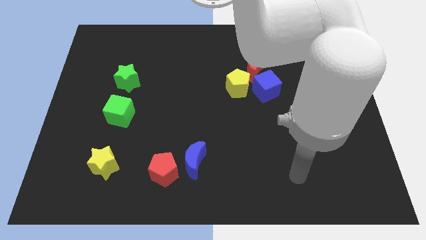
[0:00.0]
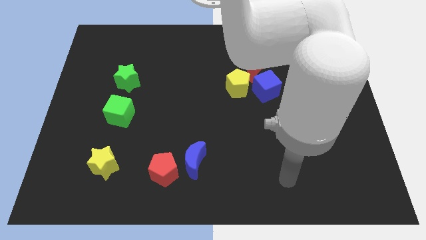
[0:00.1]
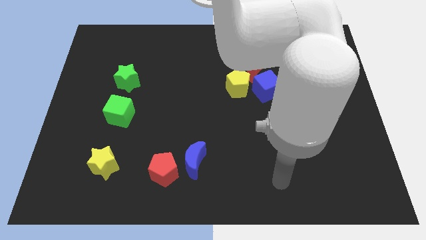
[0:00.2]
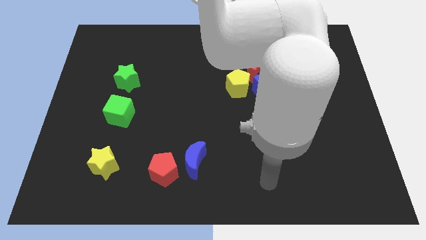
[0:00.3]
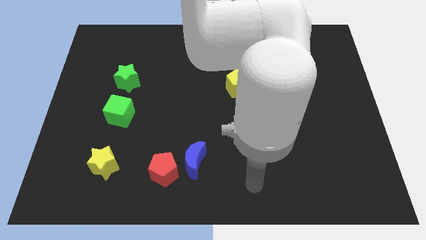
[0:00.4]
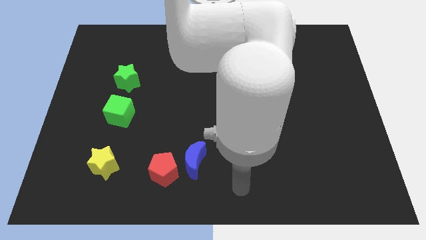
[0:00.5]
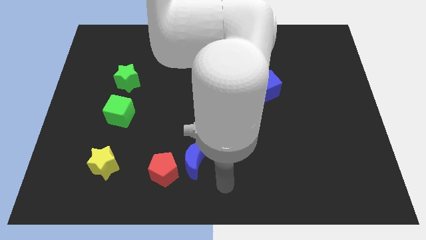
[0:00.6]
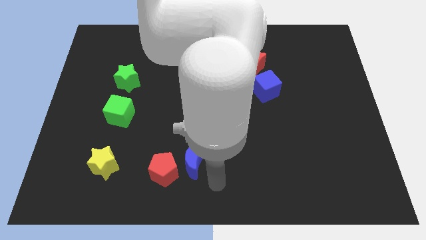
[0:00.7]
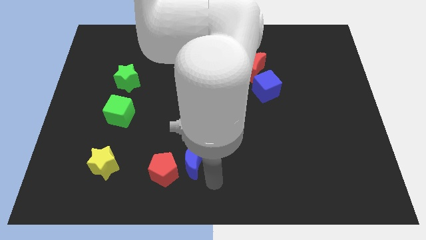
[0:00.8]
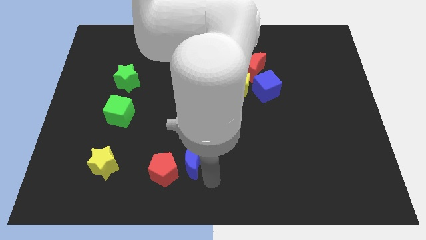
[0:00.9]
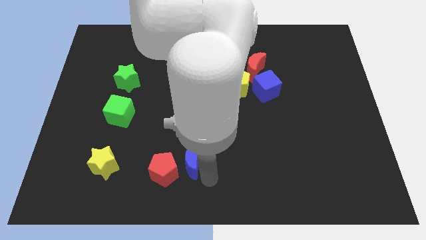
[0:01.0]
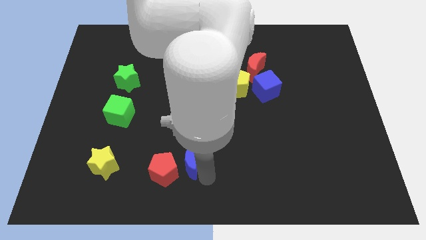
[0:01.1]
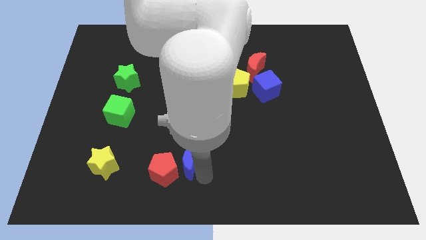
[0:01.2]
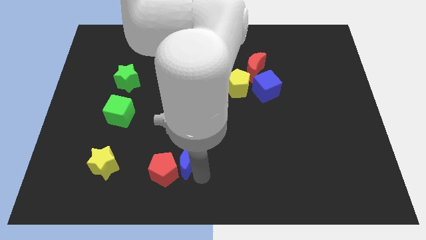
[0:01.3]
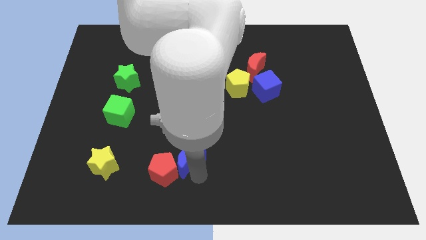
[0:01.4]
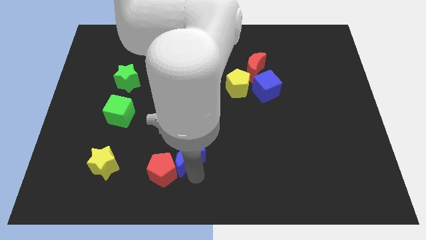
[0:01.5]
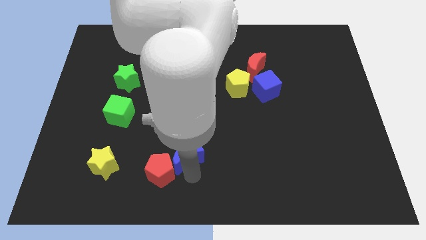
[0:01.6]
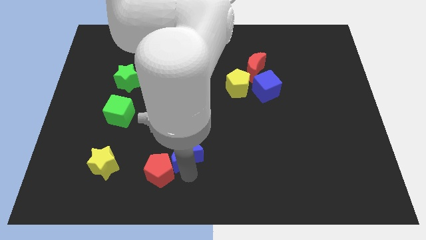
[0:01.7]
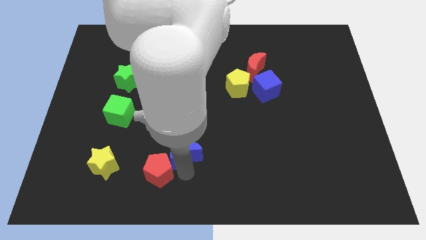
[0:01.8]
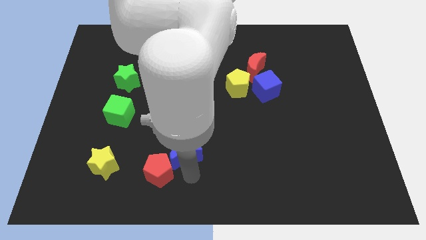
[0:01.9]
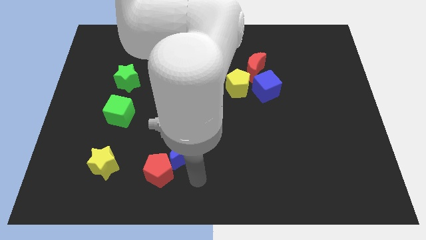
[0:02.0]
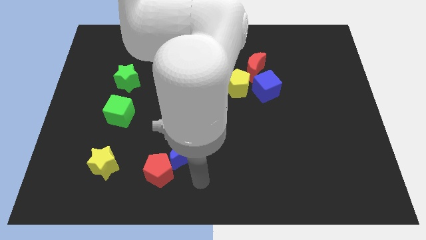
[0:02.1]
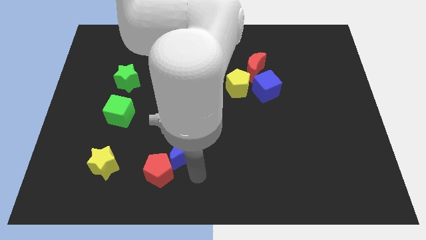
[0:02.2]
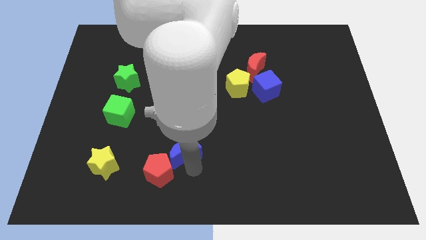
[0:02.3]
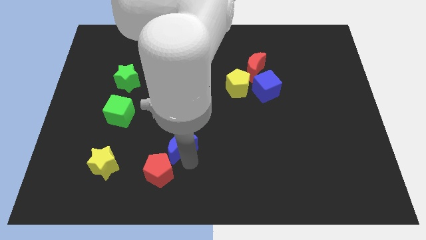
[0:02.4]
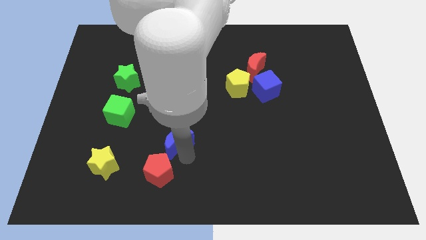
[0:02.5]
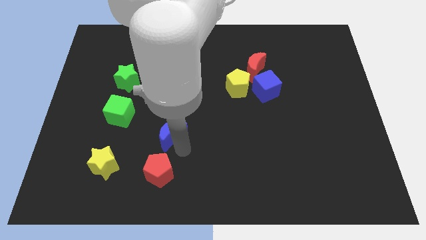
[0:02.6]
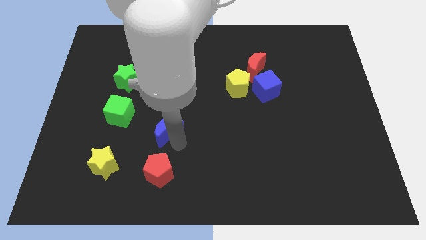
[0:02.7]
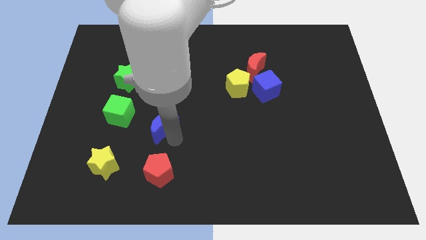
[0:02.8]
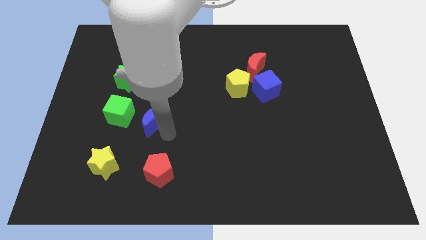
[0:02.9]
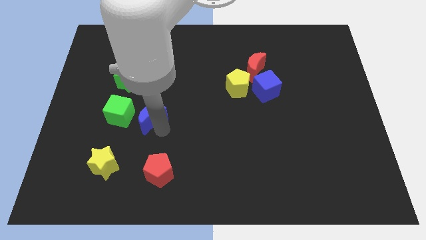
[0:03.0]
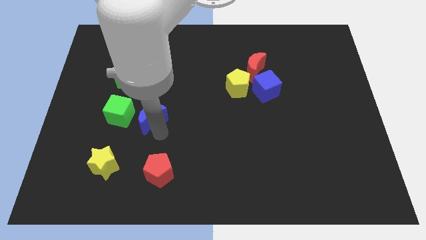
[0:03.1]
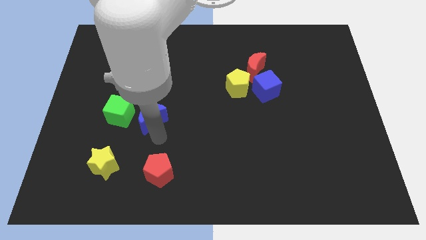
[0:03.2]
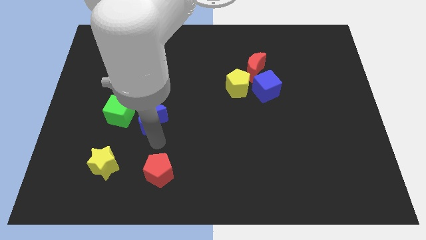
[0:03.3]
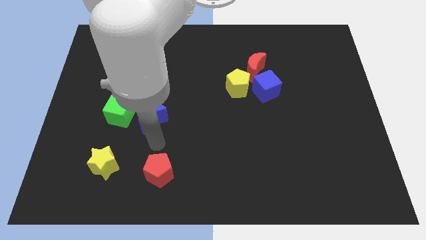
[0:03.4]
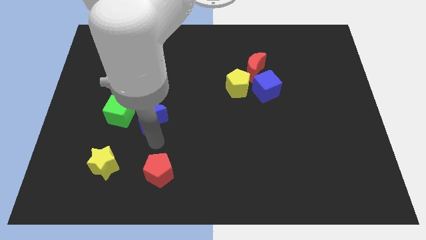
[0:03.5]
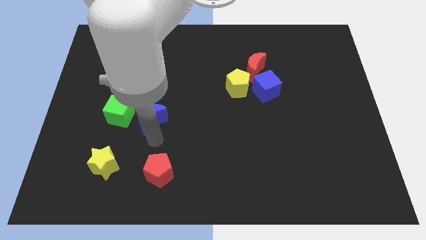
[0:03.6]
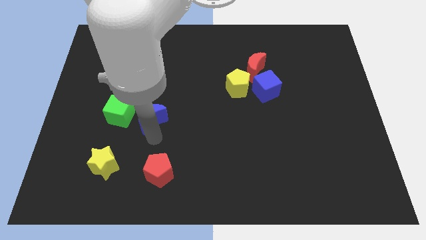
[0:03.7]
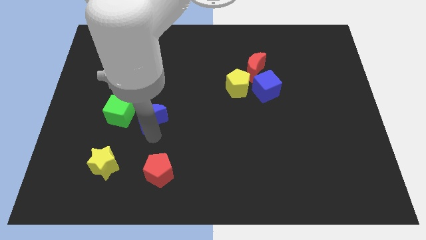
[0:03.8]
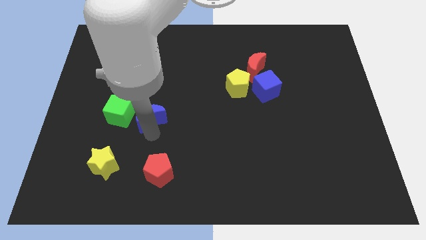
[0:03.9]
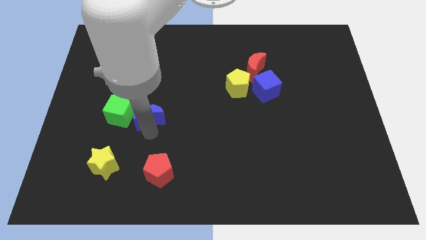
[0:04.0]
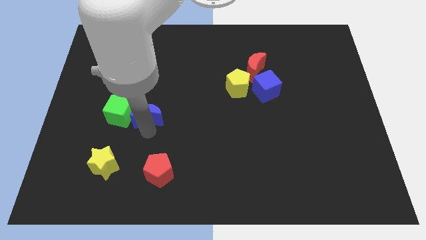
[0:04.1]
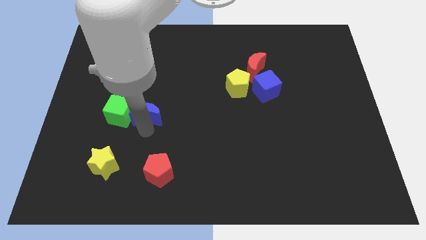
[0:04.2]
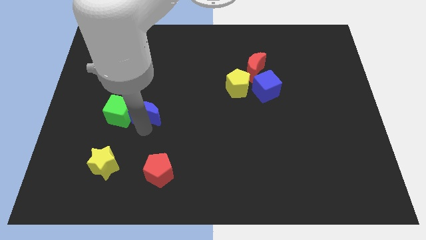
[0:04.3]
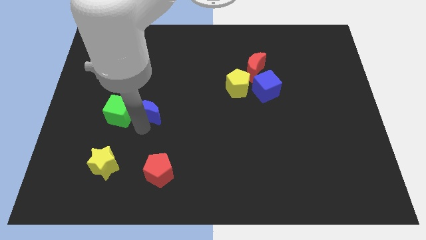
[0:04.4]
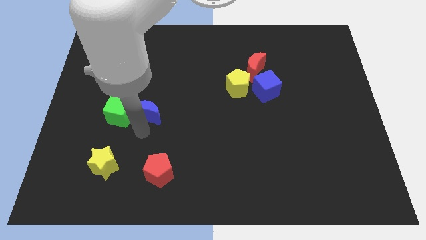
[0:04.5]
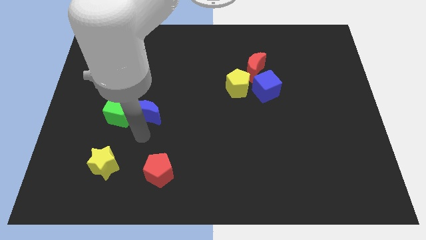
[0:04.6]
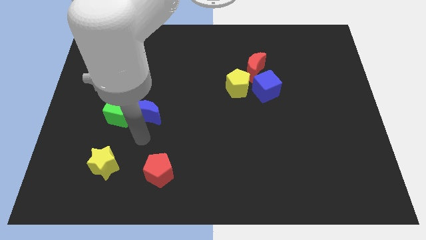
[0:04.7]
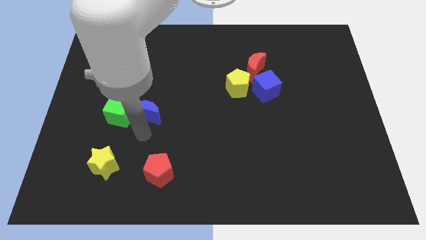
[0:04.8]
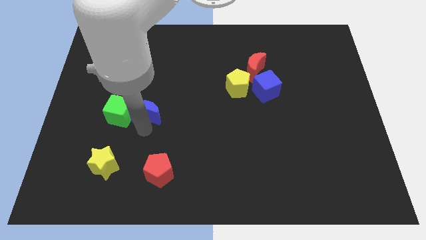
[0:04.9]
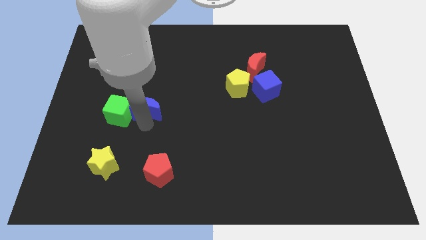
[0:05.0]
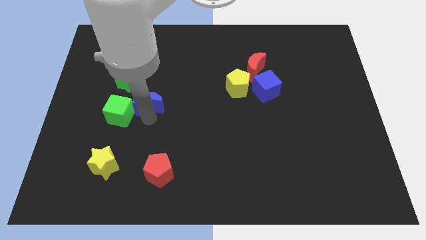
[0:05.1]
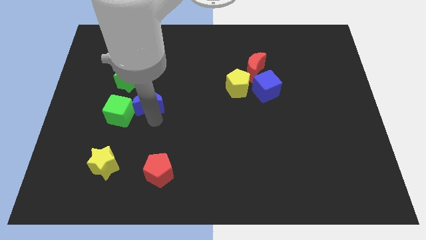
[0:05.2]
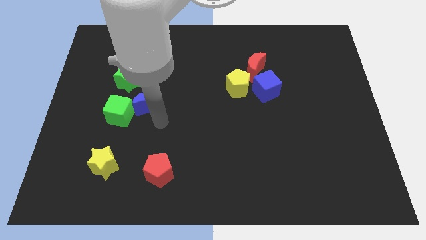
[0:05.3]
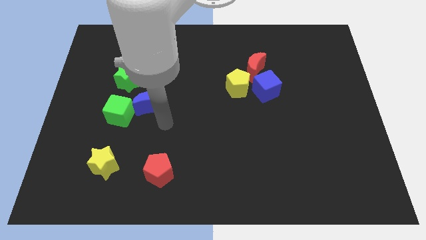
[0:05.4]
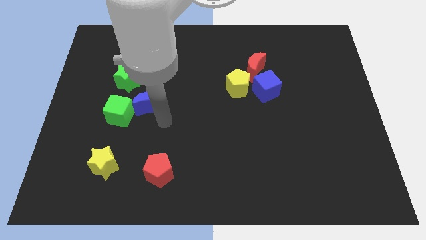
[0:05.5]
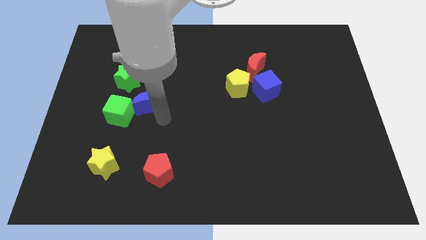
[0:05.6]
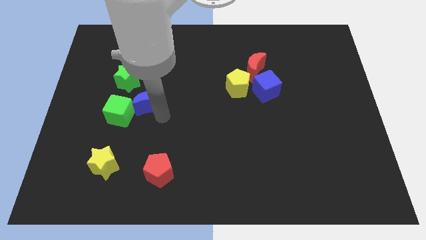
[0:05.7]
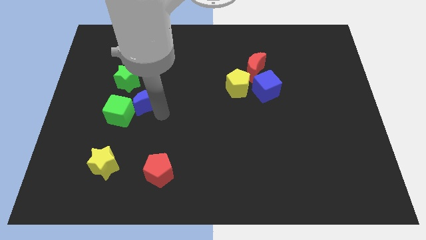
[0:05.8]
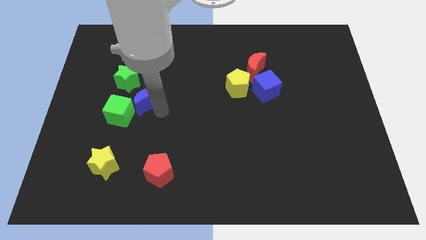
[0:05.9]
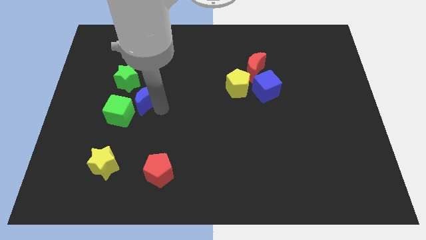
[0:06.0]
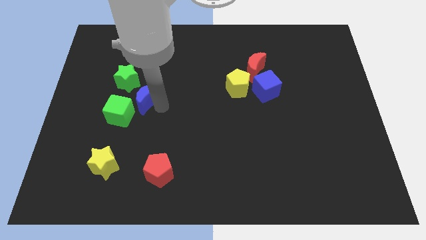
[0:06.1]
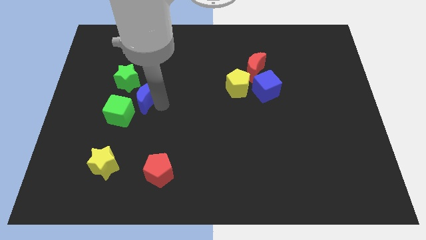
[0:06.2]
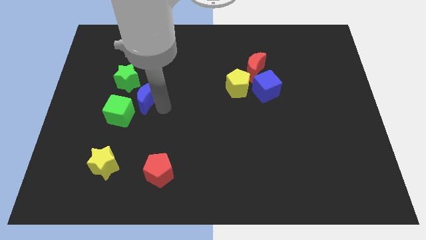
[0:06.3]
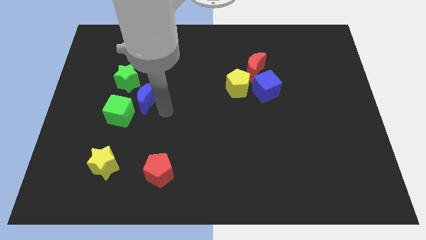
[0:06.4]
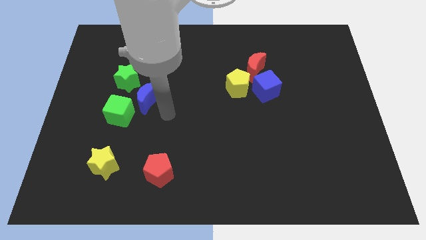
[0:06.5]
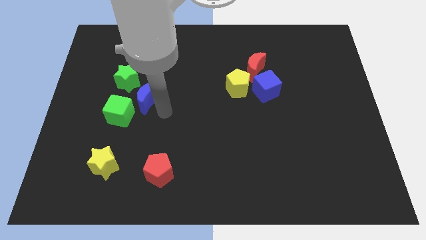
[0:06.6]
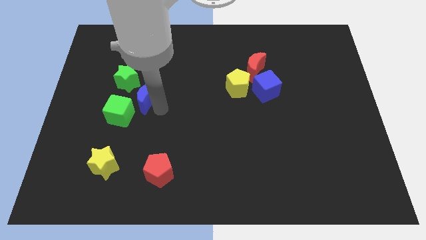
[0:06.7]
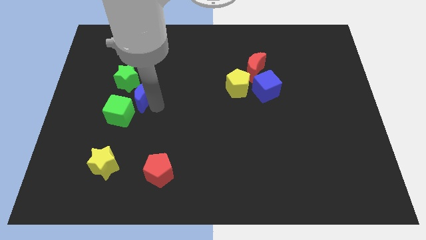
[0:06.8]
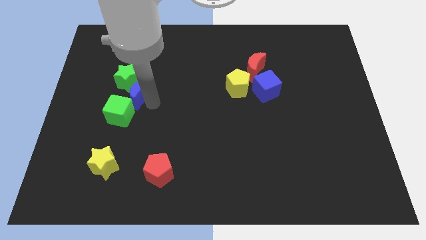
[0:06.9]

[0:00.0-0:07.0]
put the blue moon next to the green star
